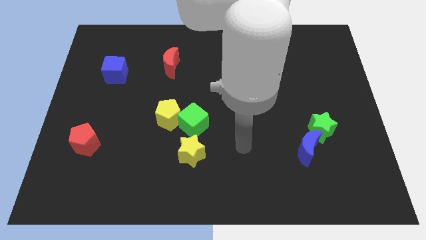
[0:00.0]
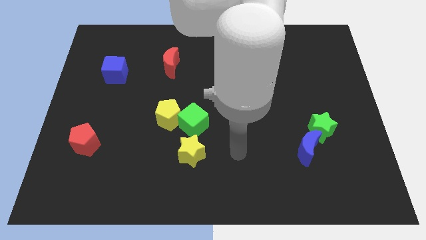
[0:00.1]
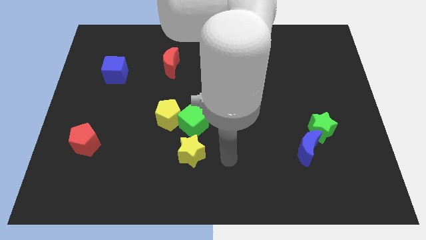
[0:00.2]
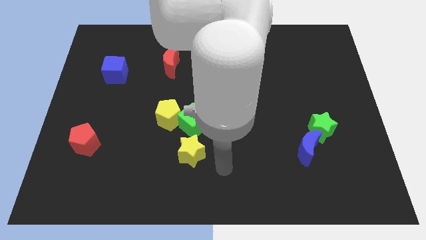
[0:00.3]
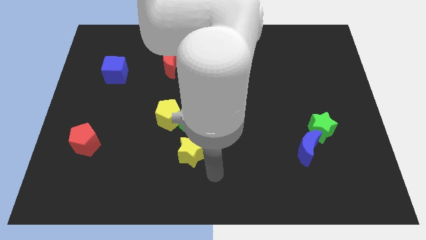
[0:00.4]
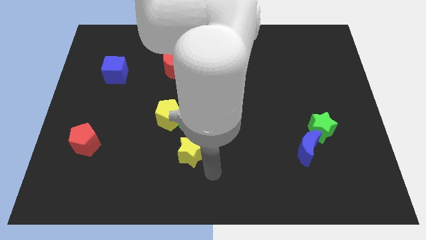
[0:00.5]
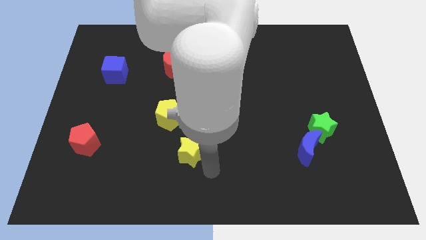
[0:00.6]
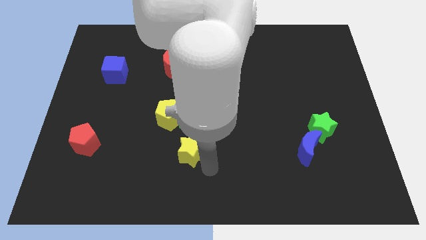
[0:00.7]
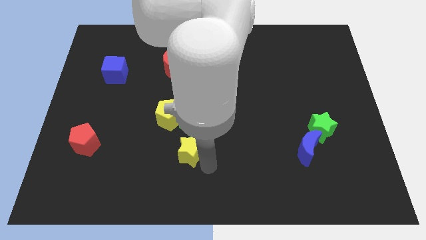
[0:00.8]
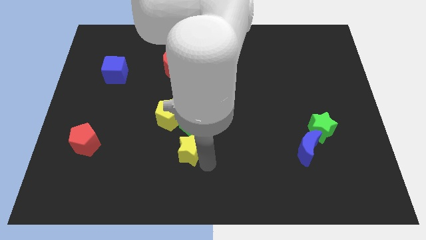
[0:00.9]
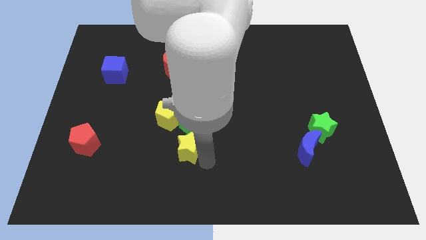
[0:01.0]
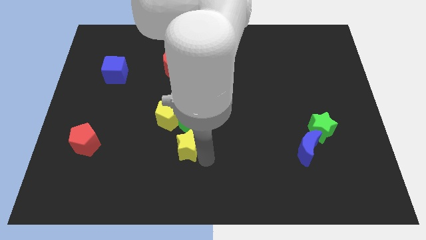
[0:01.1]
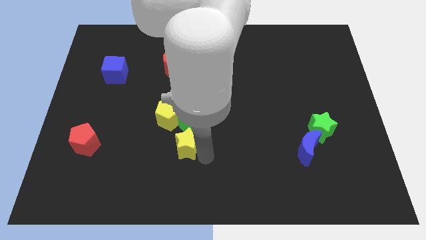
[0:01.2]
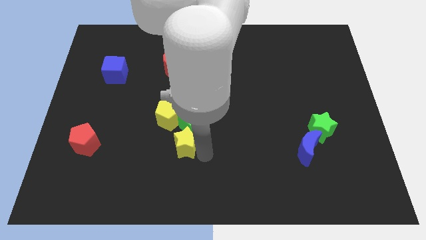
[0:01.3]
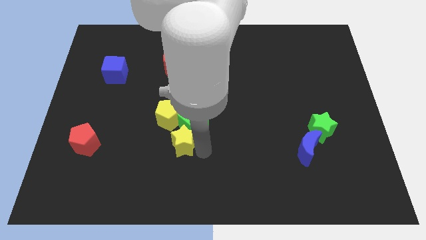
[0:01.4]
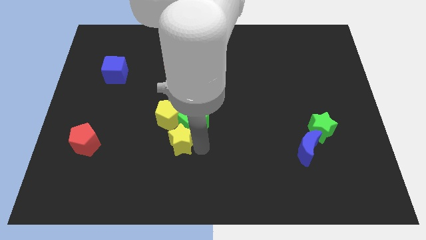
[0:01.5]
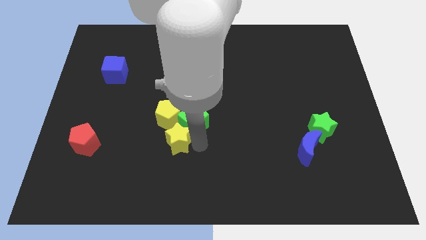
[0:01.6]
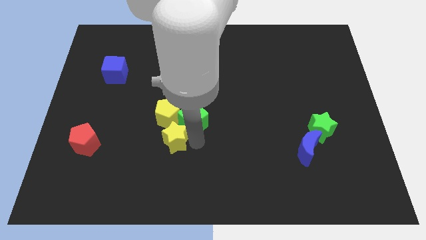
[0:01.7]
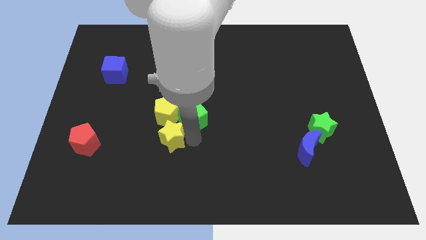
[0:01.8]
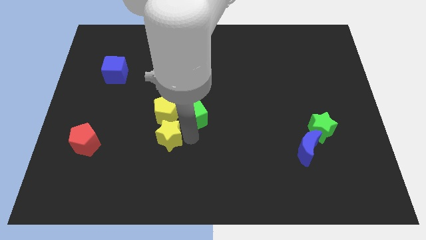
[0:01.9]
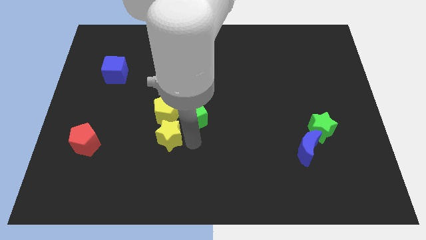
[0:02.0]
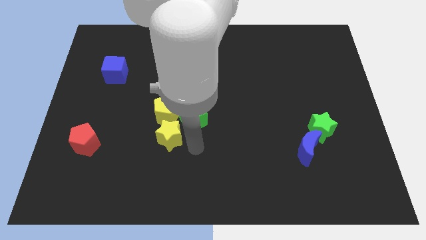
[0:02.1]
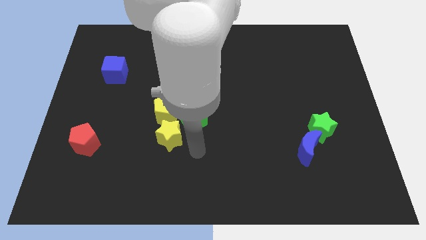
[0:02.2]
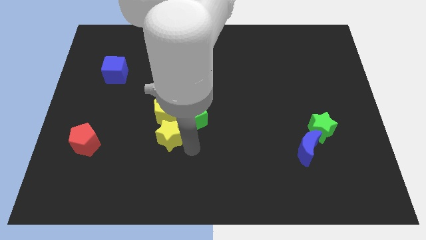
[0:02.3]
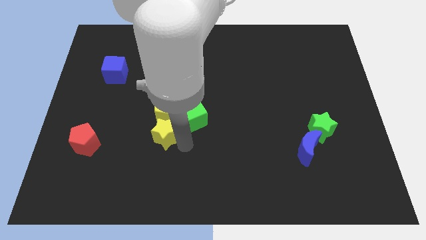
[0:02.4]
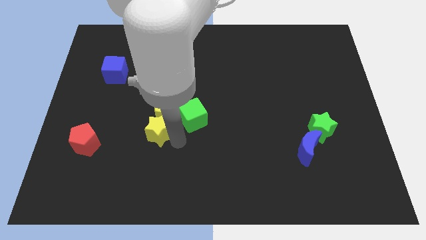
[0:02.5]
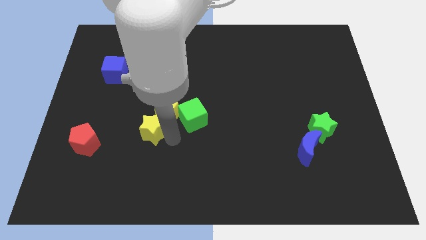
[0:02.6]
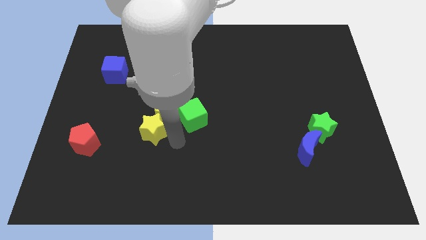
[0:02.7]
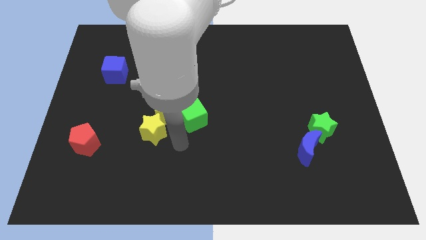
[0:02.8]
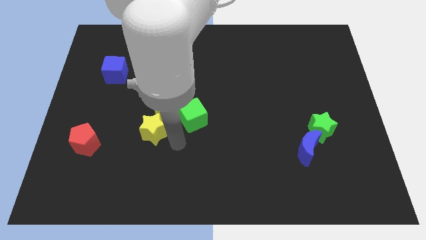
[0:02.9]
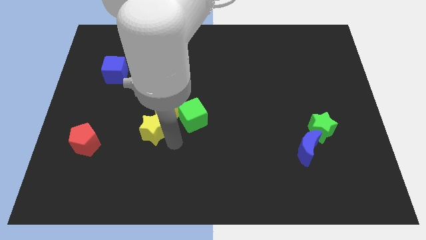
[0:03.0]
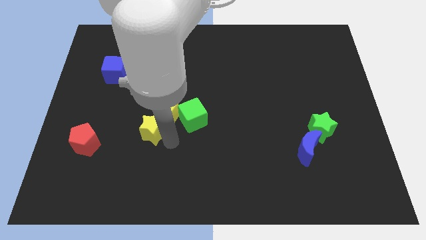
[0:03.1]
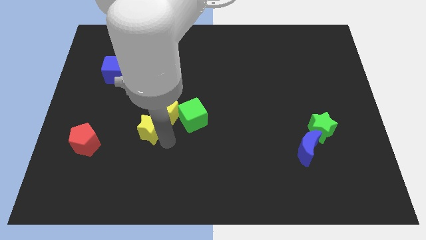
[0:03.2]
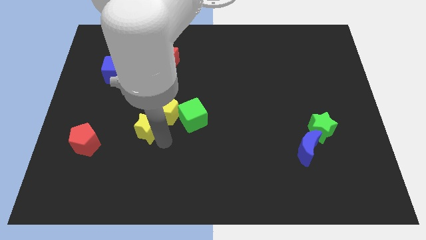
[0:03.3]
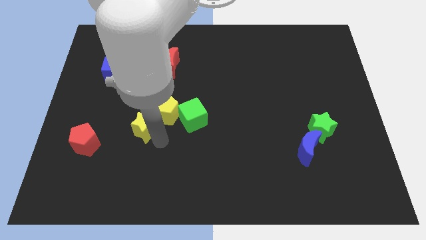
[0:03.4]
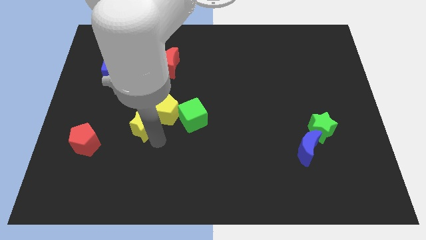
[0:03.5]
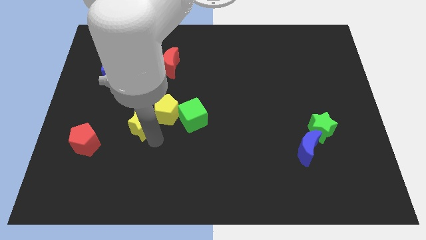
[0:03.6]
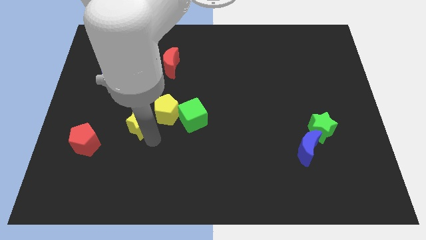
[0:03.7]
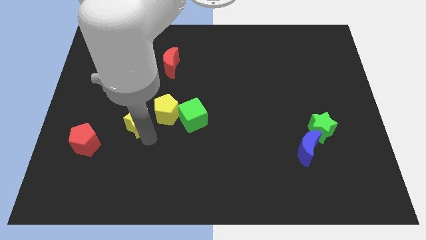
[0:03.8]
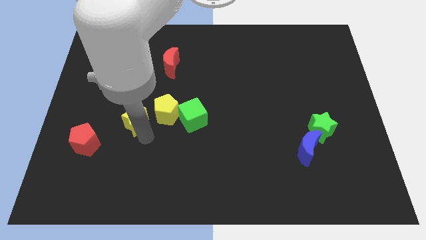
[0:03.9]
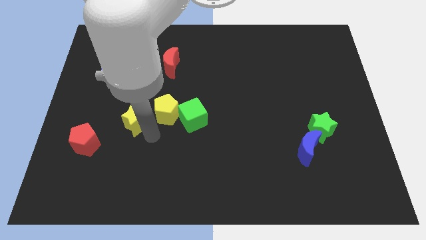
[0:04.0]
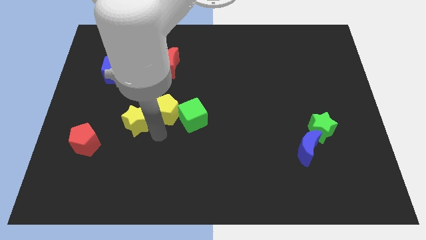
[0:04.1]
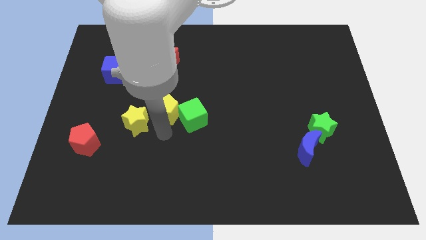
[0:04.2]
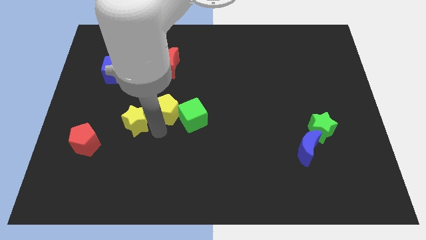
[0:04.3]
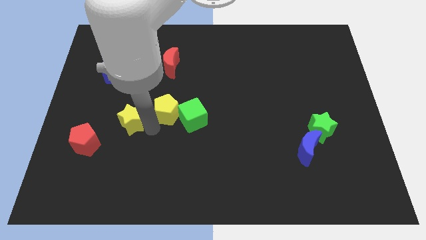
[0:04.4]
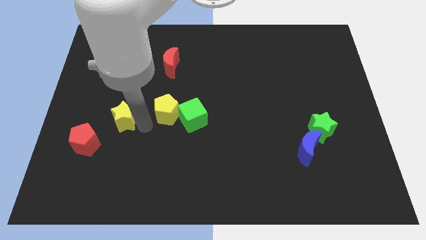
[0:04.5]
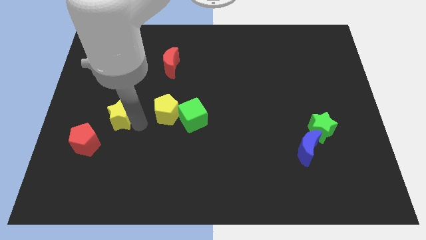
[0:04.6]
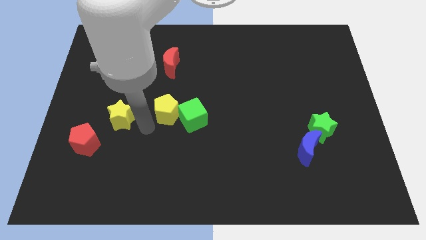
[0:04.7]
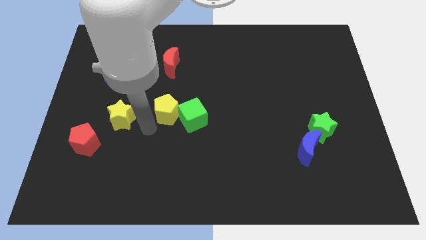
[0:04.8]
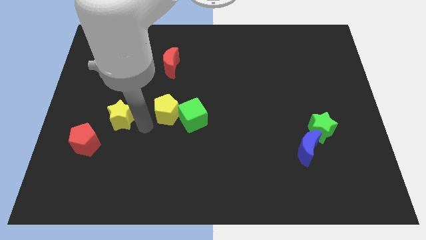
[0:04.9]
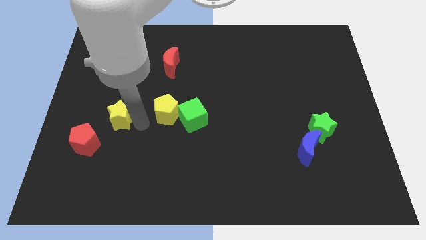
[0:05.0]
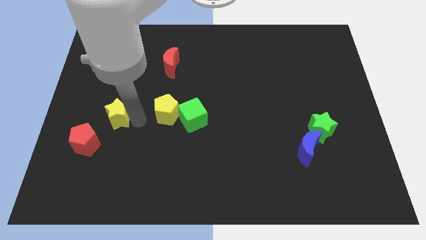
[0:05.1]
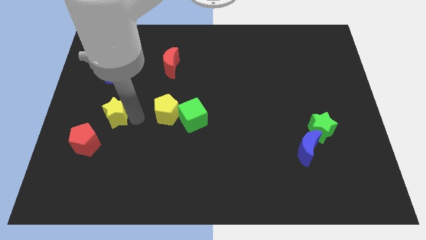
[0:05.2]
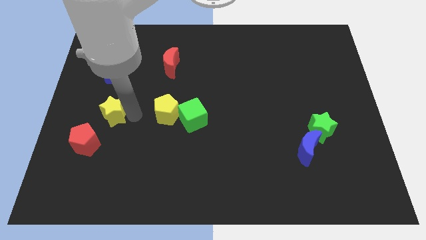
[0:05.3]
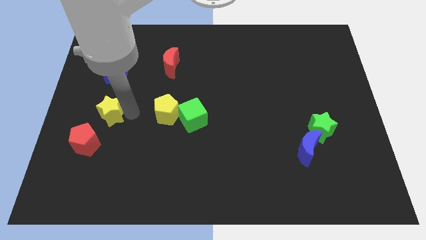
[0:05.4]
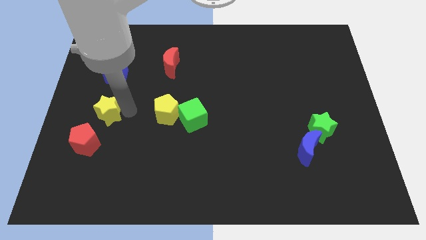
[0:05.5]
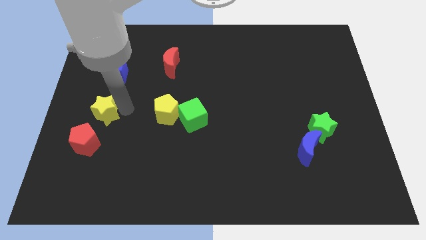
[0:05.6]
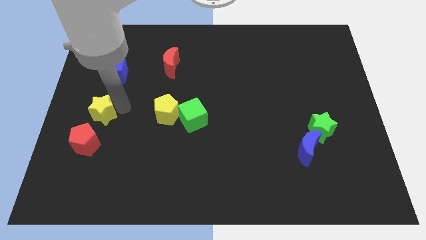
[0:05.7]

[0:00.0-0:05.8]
move the yellow star to the left side

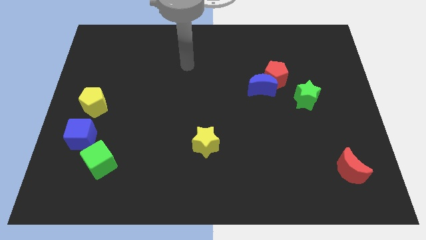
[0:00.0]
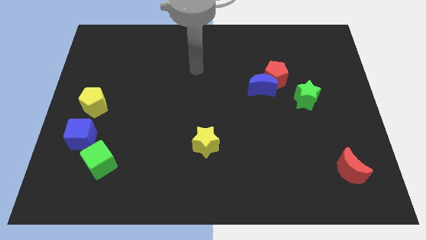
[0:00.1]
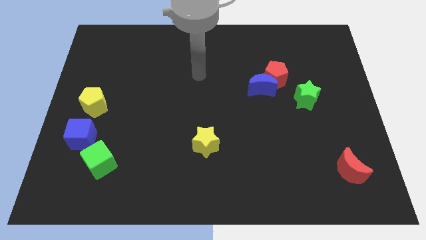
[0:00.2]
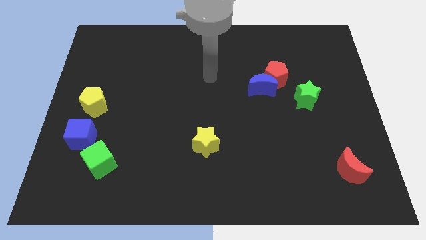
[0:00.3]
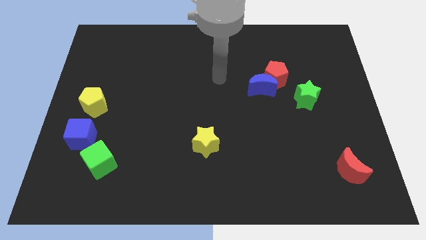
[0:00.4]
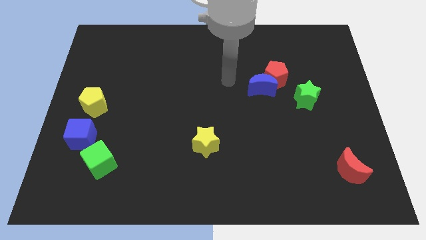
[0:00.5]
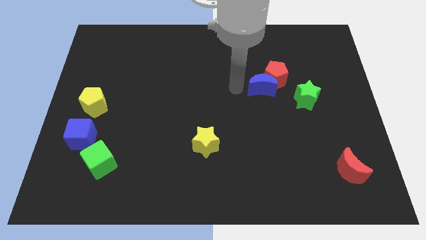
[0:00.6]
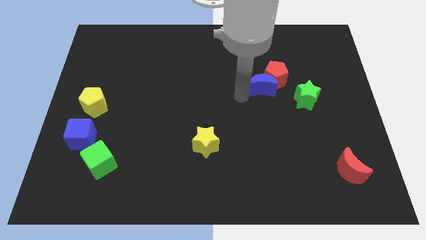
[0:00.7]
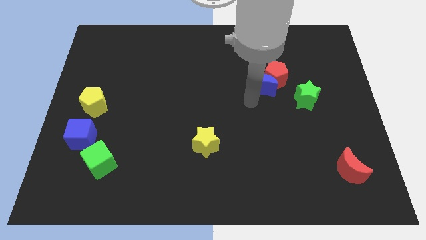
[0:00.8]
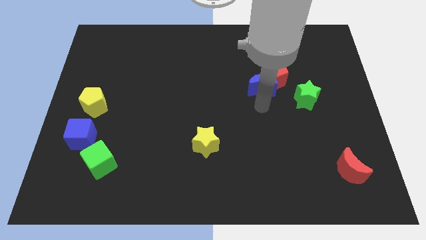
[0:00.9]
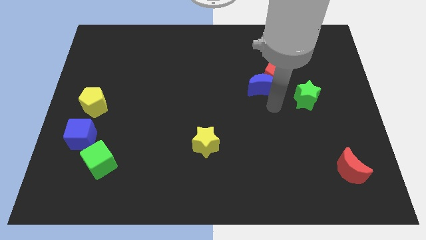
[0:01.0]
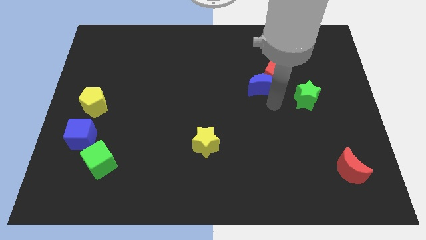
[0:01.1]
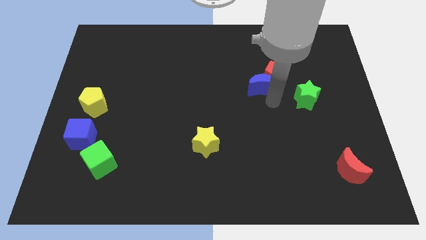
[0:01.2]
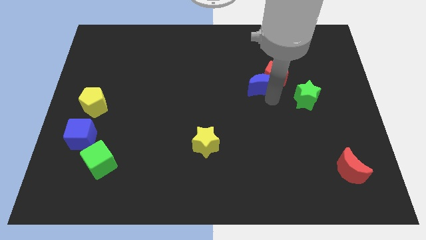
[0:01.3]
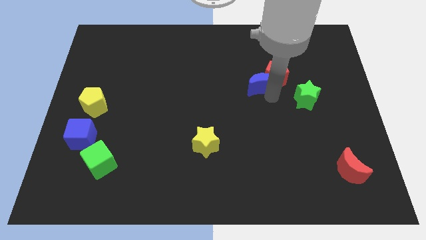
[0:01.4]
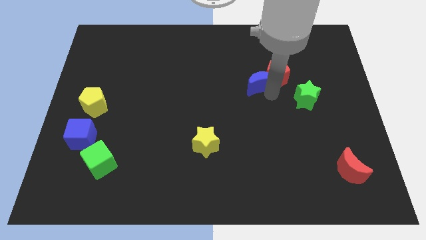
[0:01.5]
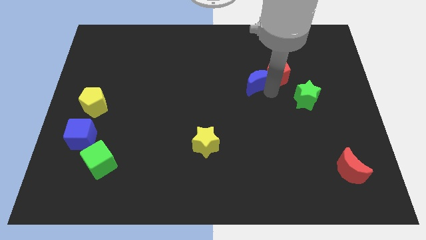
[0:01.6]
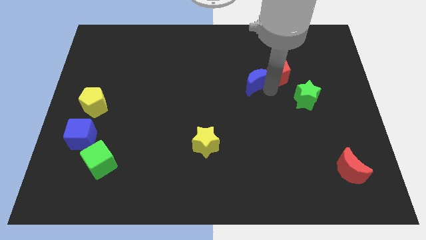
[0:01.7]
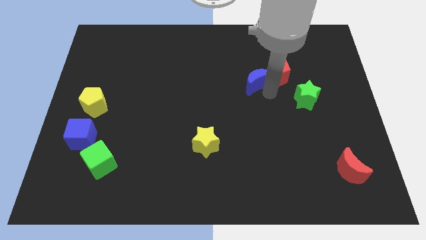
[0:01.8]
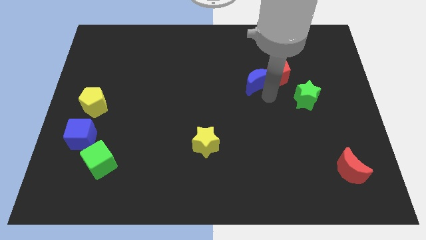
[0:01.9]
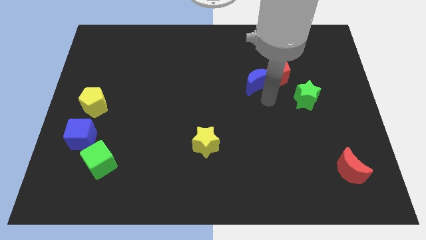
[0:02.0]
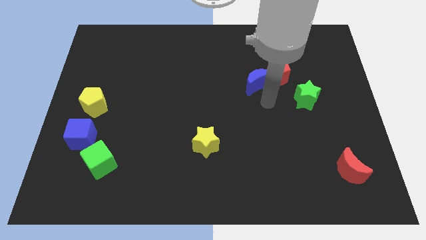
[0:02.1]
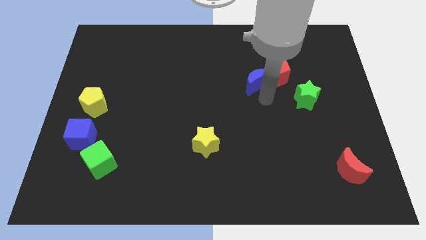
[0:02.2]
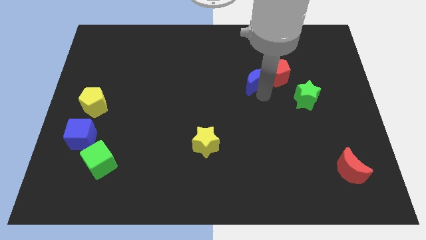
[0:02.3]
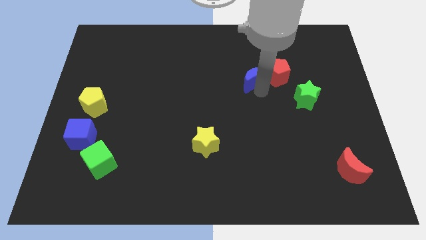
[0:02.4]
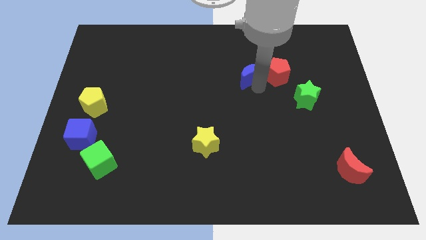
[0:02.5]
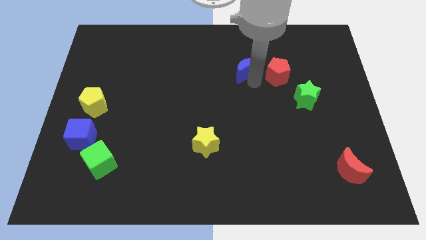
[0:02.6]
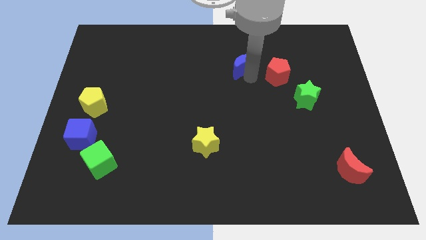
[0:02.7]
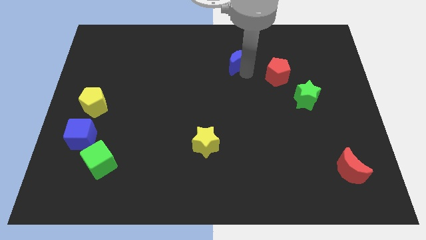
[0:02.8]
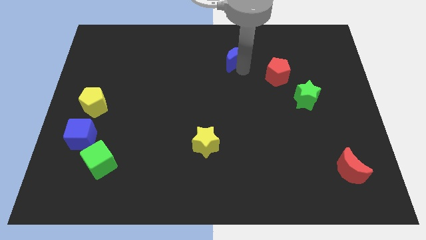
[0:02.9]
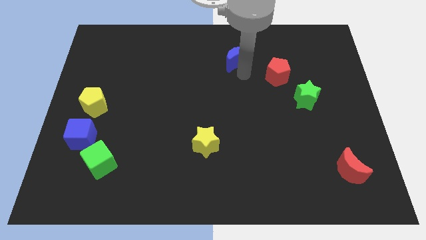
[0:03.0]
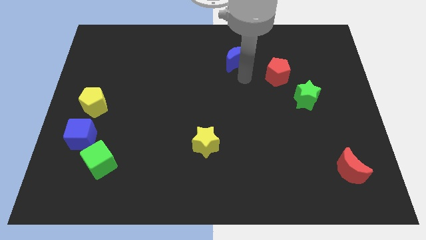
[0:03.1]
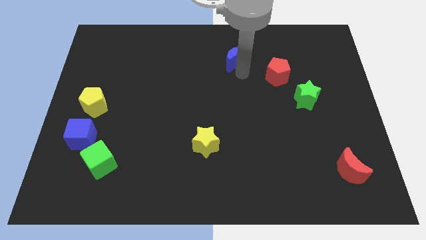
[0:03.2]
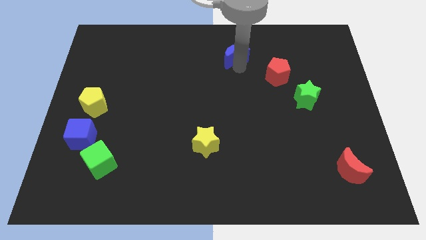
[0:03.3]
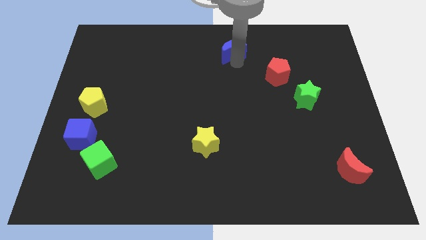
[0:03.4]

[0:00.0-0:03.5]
put the blue moon to the top
